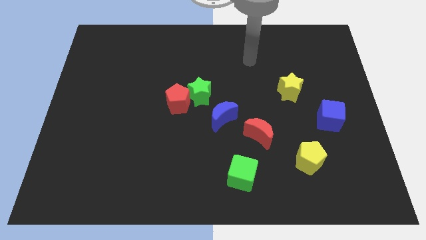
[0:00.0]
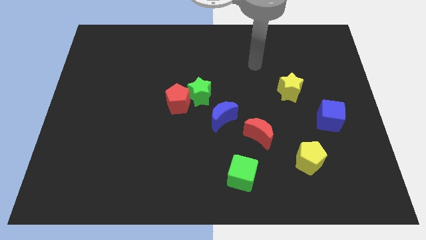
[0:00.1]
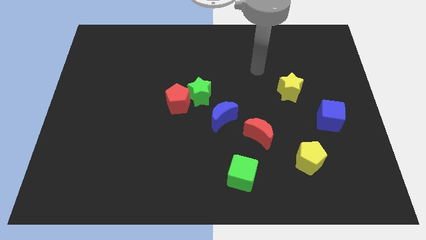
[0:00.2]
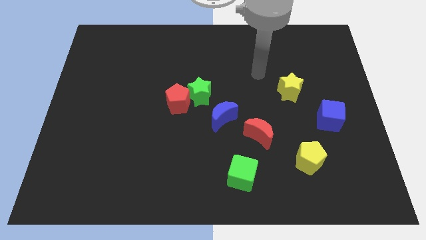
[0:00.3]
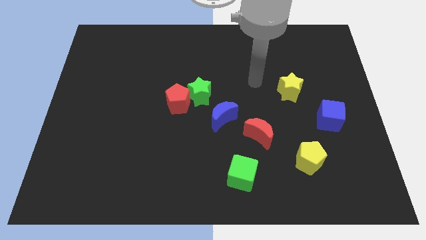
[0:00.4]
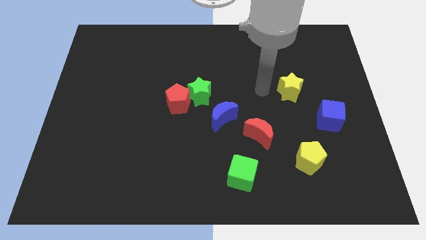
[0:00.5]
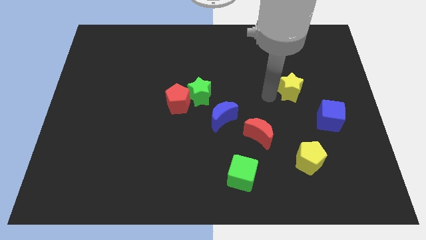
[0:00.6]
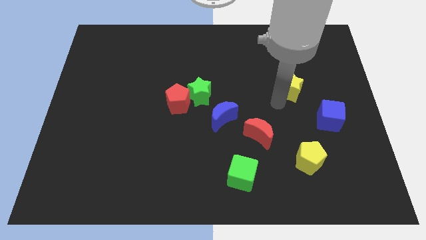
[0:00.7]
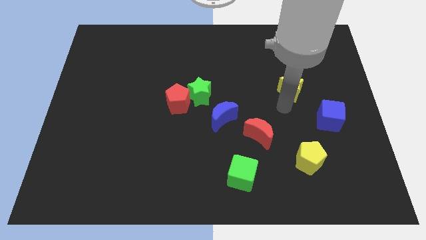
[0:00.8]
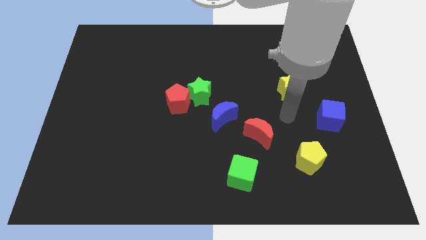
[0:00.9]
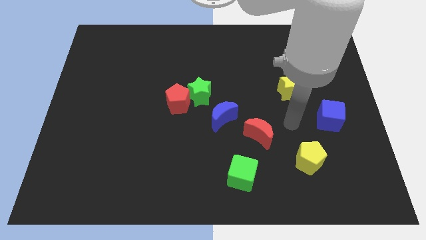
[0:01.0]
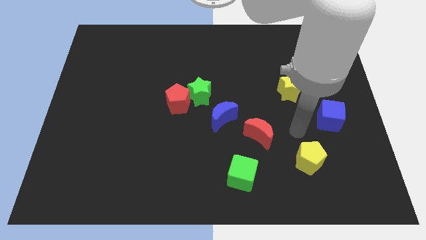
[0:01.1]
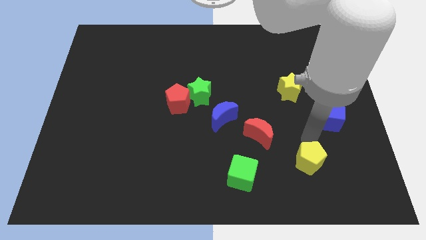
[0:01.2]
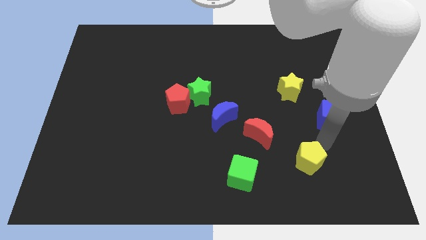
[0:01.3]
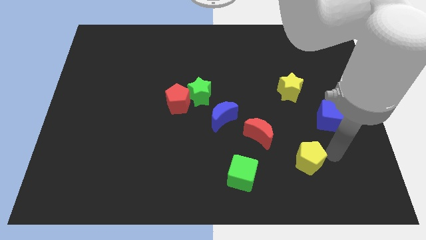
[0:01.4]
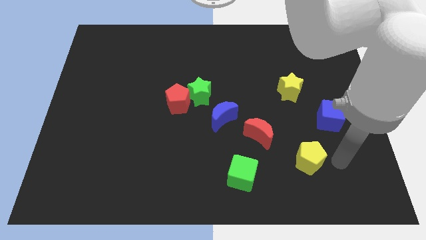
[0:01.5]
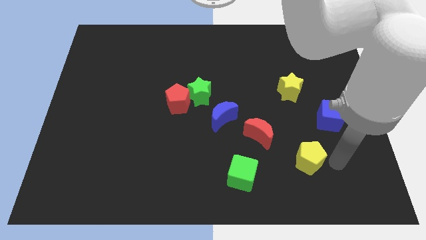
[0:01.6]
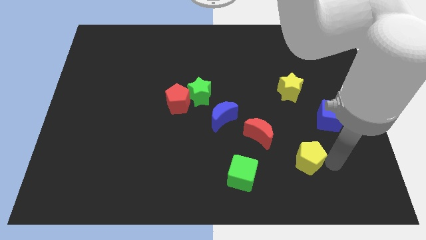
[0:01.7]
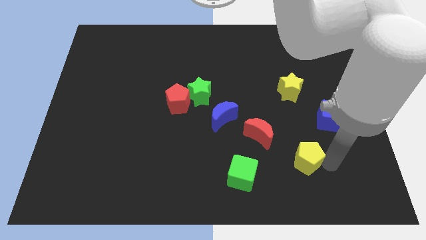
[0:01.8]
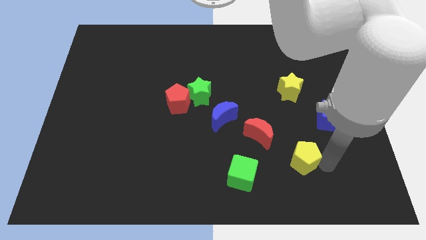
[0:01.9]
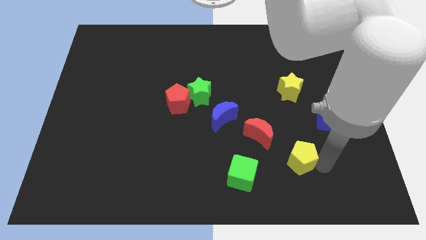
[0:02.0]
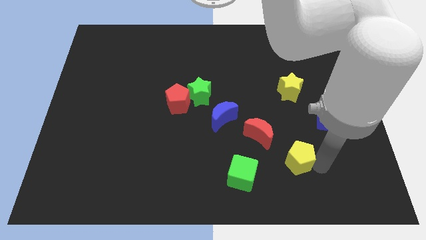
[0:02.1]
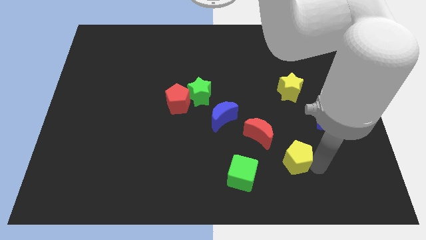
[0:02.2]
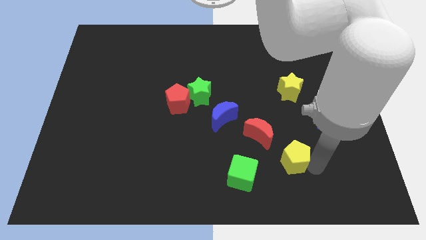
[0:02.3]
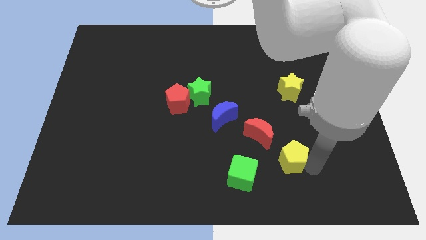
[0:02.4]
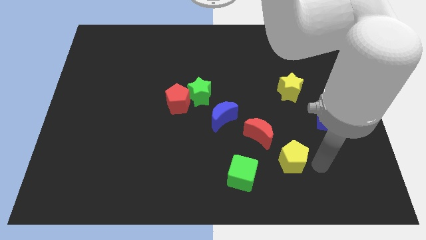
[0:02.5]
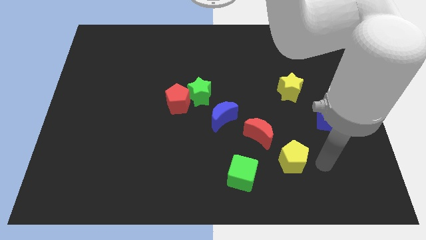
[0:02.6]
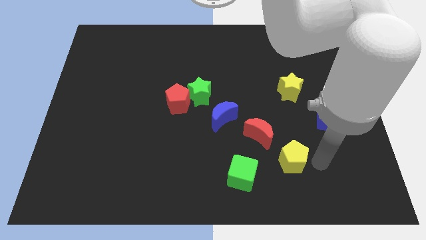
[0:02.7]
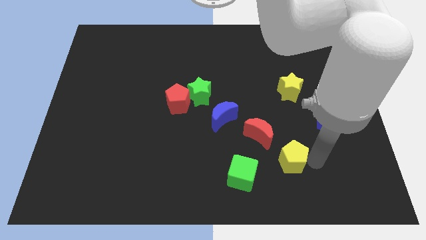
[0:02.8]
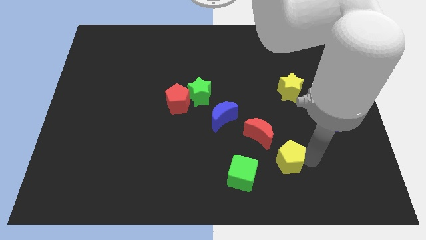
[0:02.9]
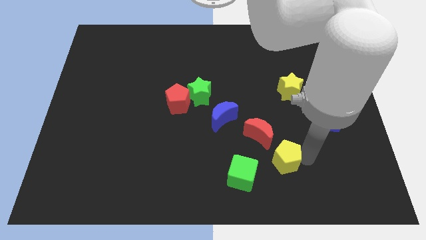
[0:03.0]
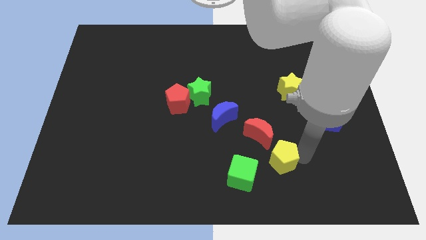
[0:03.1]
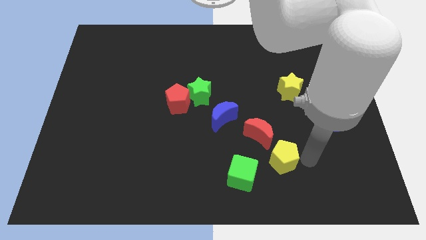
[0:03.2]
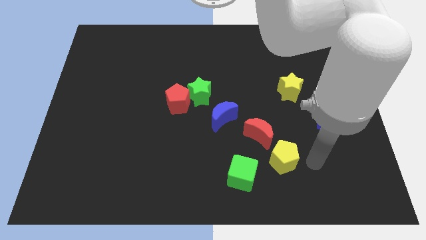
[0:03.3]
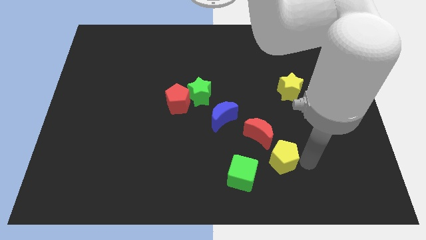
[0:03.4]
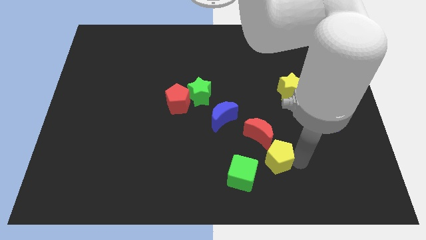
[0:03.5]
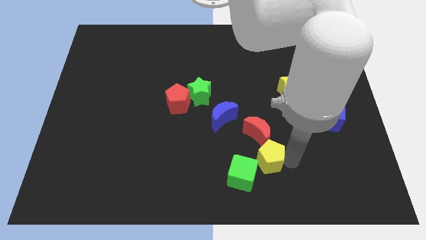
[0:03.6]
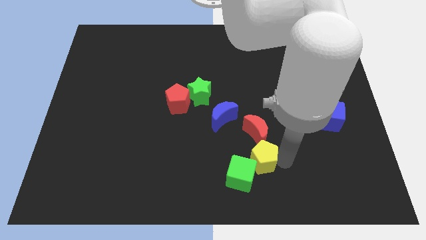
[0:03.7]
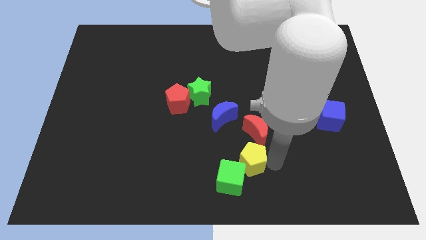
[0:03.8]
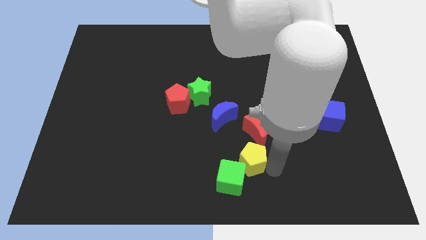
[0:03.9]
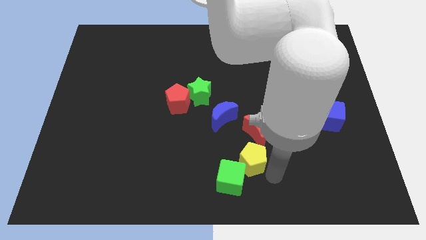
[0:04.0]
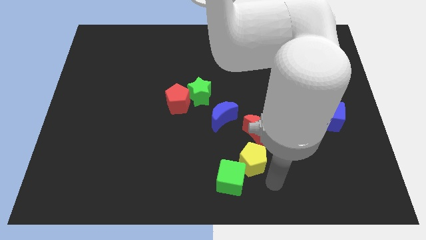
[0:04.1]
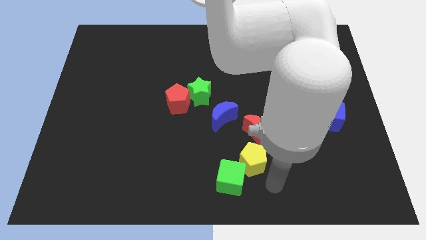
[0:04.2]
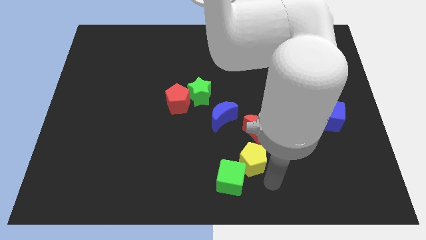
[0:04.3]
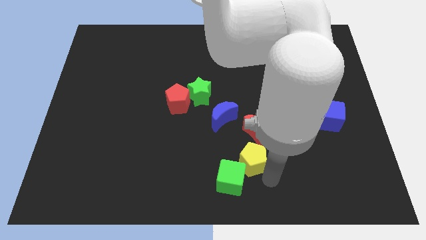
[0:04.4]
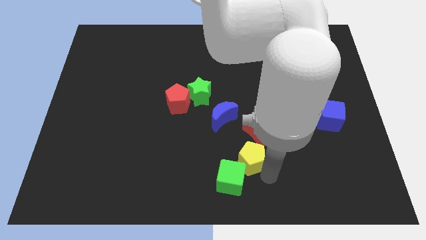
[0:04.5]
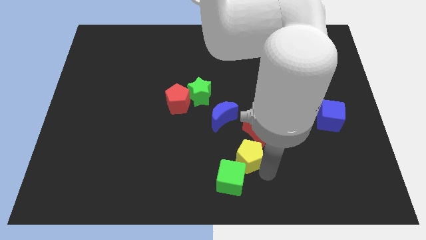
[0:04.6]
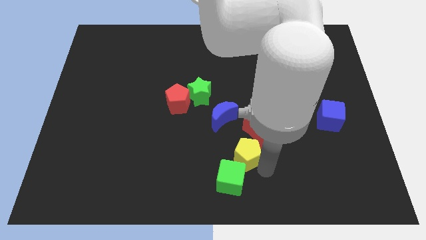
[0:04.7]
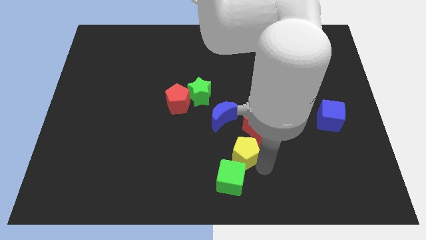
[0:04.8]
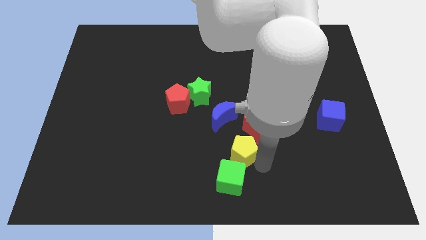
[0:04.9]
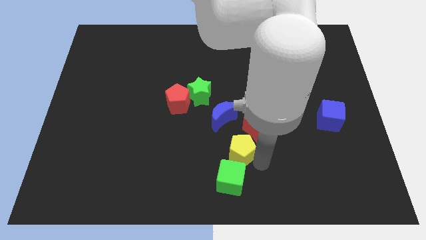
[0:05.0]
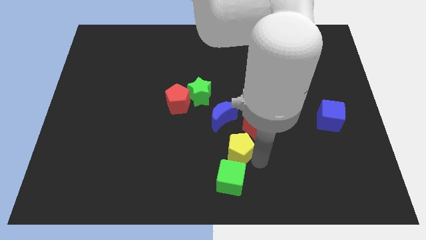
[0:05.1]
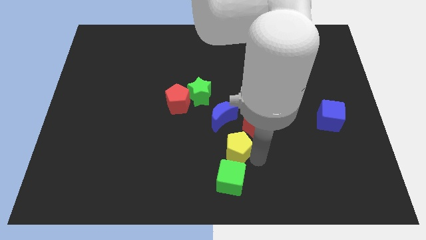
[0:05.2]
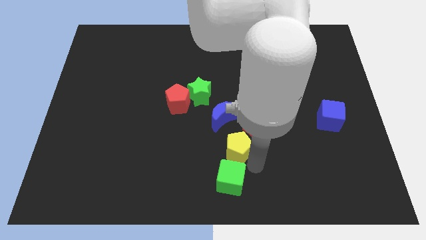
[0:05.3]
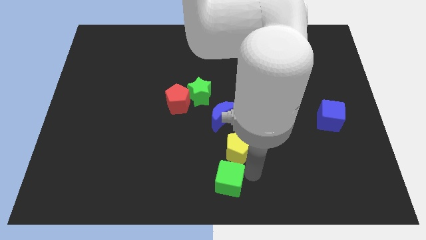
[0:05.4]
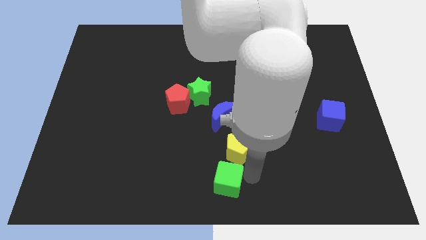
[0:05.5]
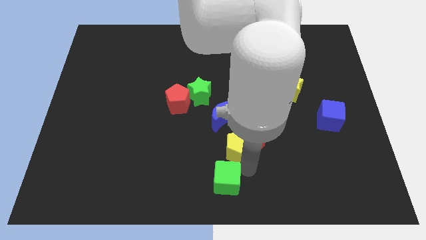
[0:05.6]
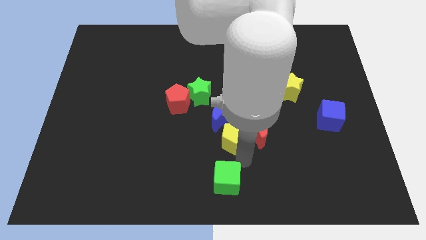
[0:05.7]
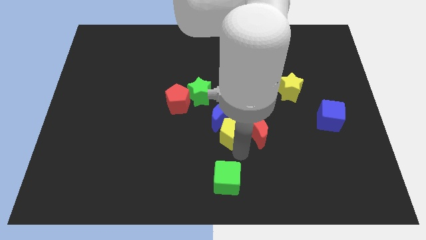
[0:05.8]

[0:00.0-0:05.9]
put the yellow pentagon next to the blue moon

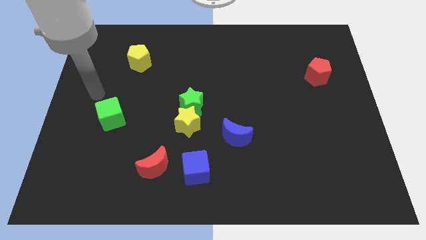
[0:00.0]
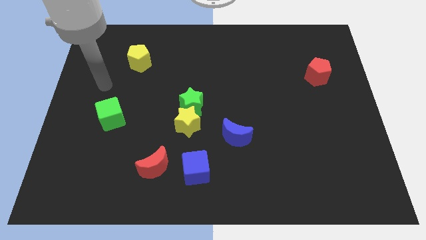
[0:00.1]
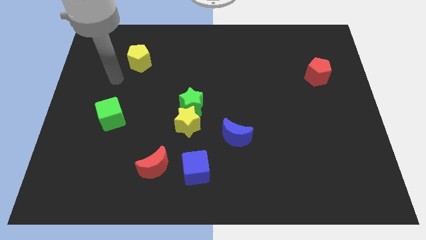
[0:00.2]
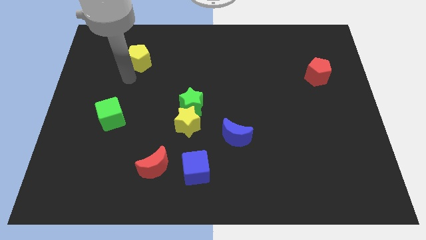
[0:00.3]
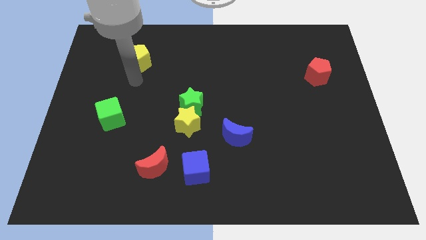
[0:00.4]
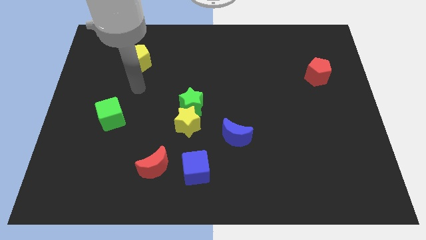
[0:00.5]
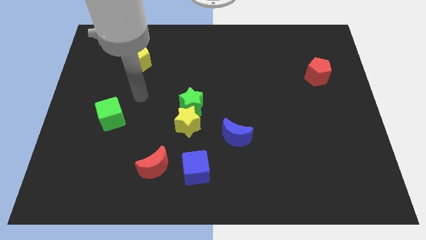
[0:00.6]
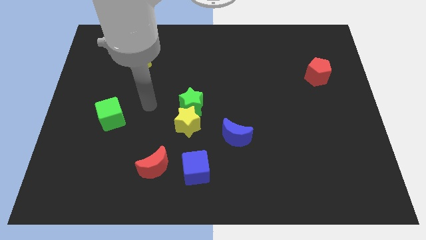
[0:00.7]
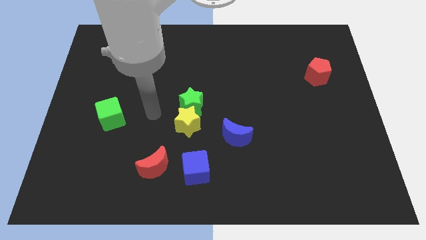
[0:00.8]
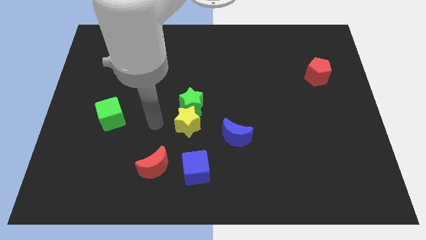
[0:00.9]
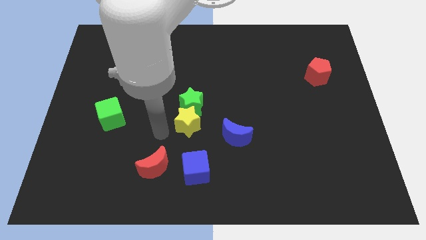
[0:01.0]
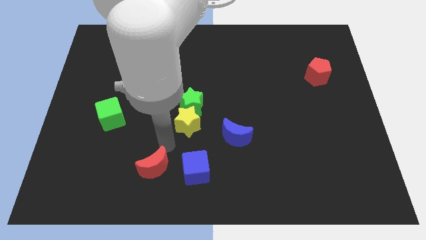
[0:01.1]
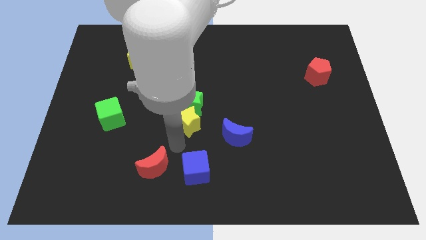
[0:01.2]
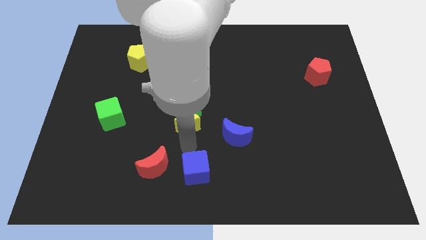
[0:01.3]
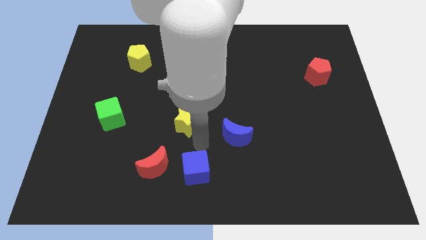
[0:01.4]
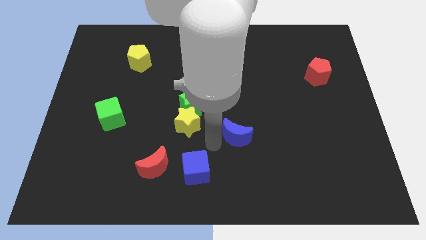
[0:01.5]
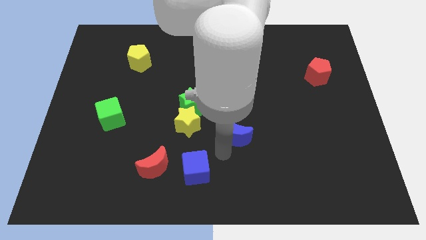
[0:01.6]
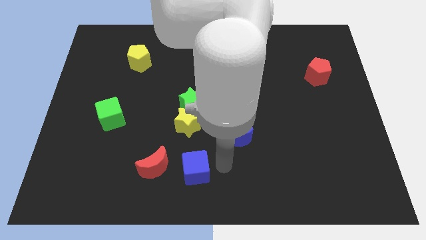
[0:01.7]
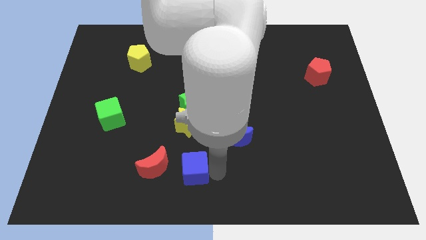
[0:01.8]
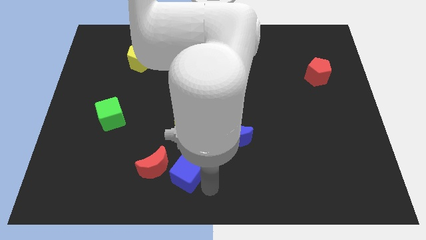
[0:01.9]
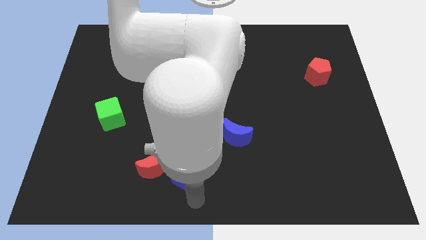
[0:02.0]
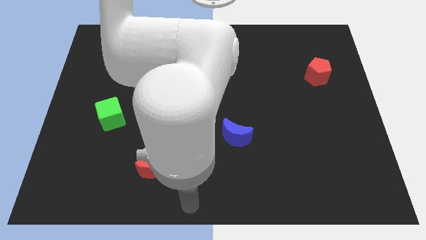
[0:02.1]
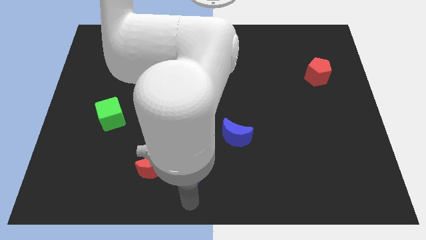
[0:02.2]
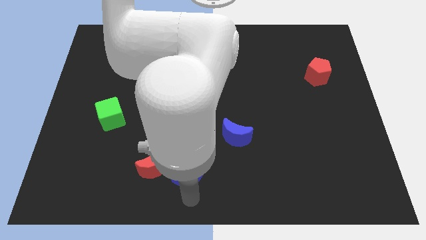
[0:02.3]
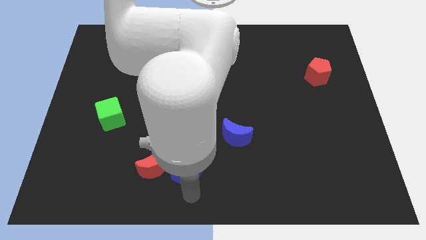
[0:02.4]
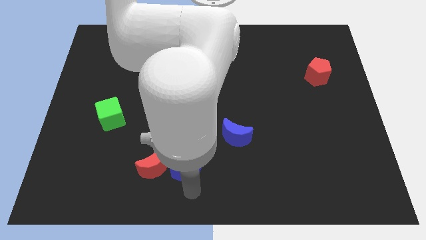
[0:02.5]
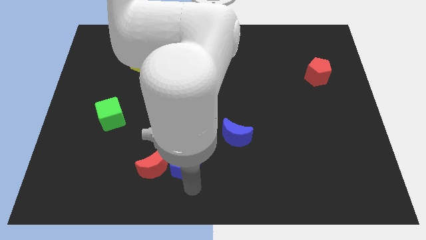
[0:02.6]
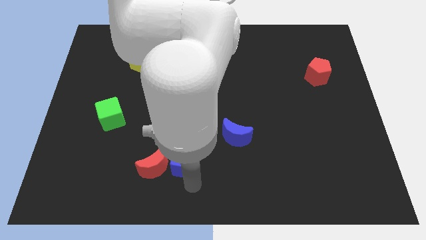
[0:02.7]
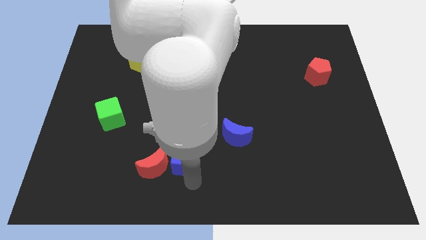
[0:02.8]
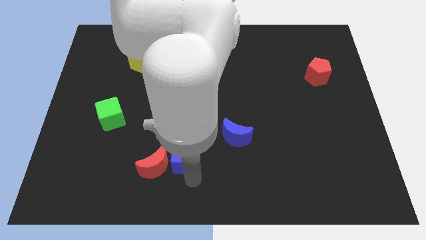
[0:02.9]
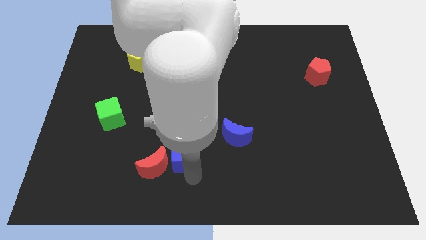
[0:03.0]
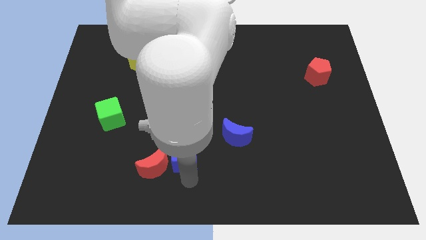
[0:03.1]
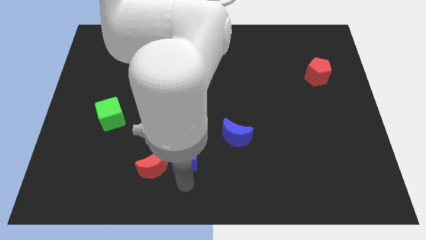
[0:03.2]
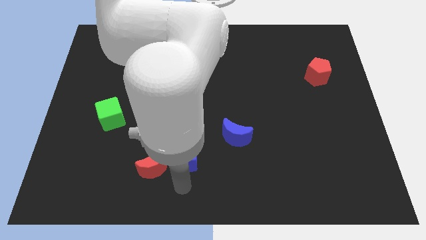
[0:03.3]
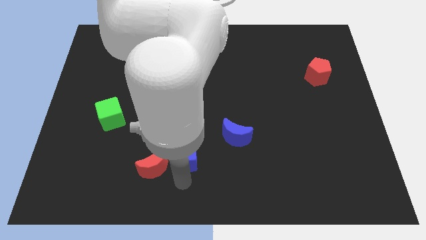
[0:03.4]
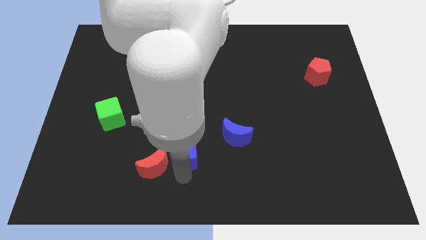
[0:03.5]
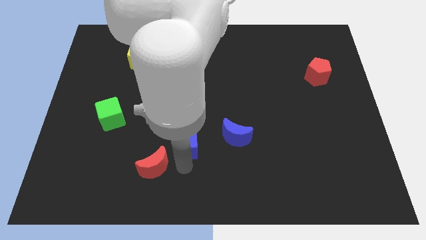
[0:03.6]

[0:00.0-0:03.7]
slide the blue cube towards the yellow star
